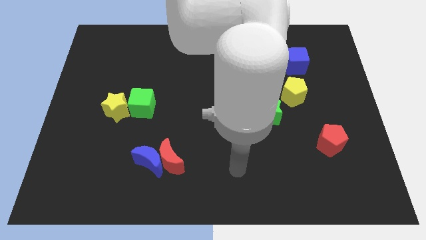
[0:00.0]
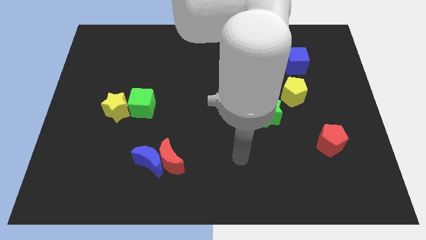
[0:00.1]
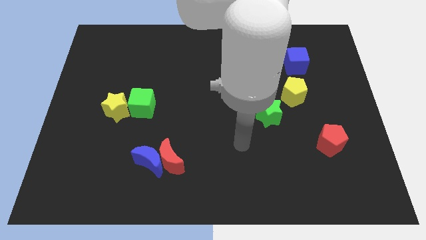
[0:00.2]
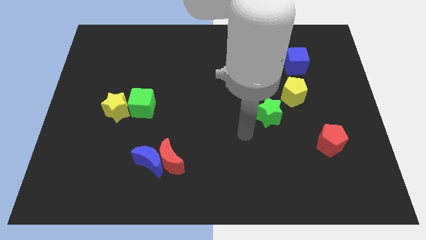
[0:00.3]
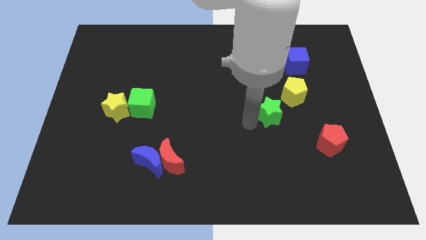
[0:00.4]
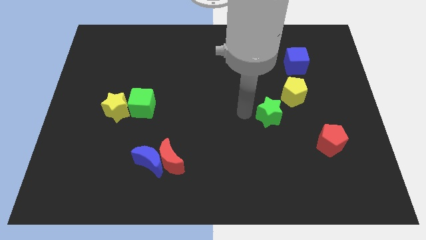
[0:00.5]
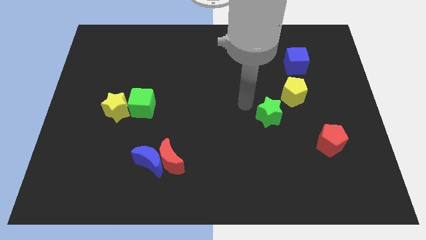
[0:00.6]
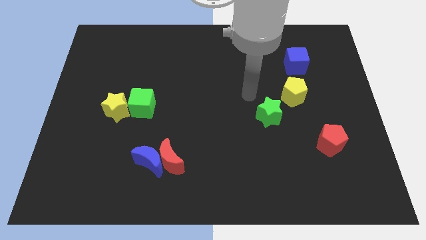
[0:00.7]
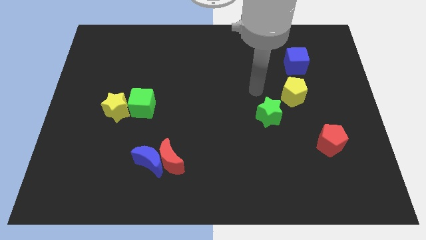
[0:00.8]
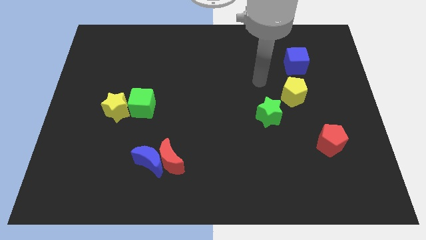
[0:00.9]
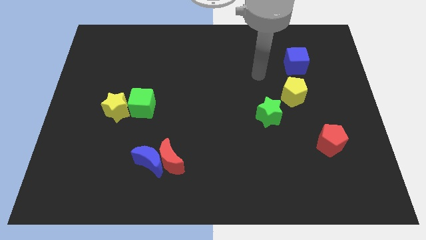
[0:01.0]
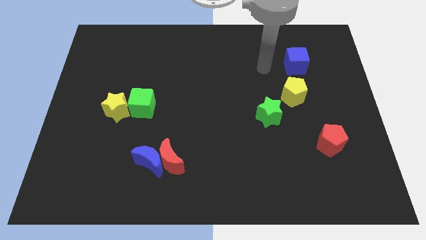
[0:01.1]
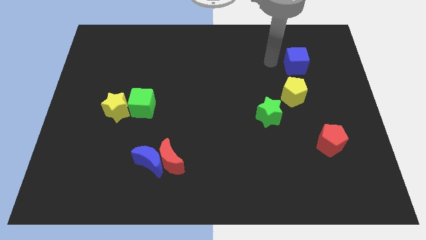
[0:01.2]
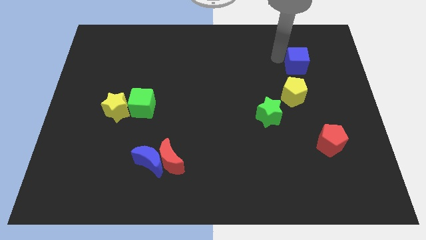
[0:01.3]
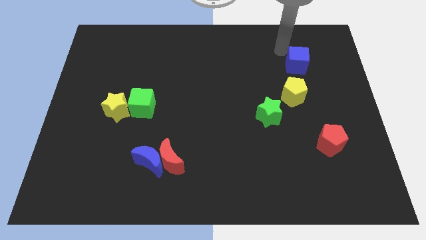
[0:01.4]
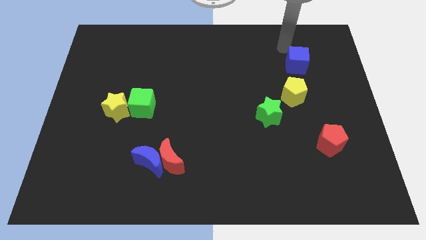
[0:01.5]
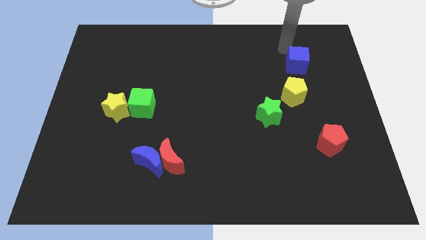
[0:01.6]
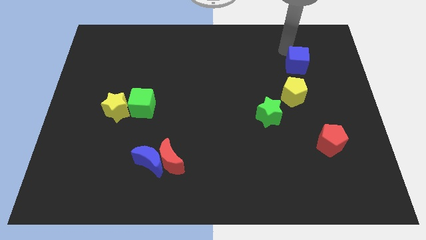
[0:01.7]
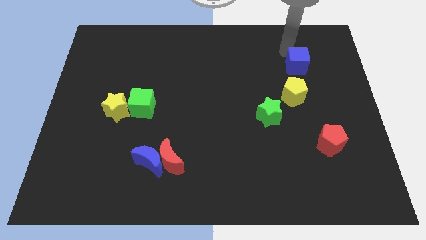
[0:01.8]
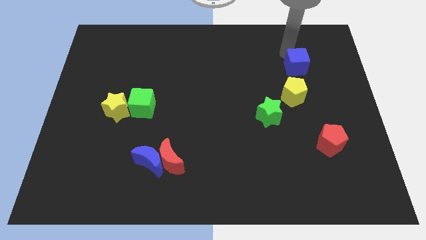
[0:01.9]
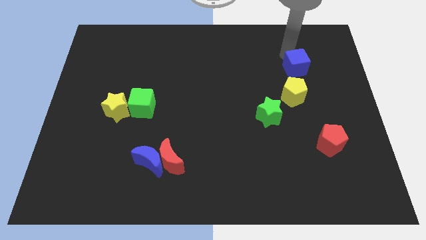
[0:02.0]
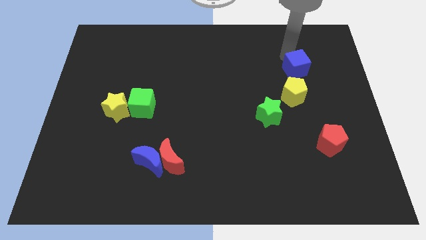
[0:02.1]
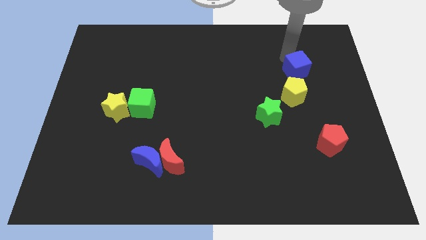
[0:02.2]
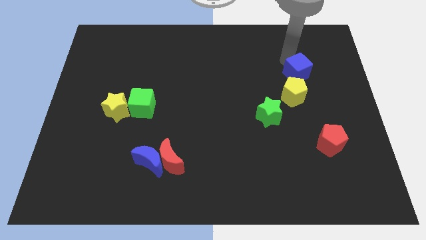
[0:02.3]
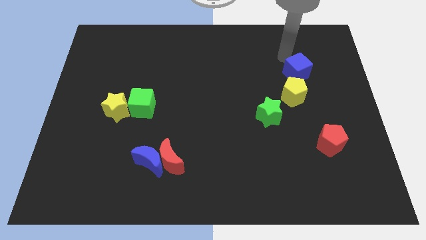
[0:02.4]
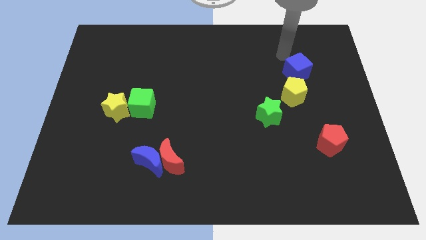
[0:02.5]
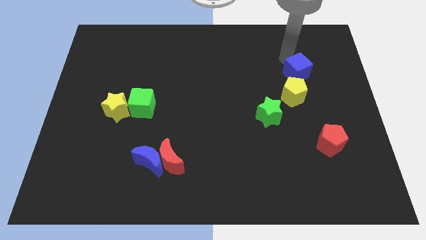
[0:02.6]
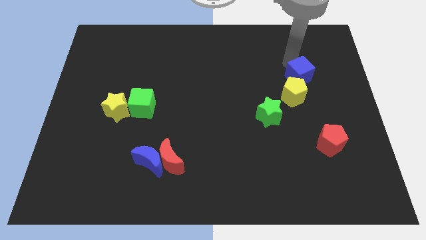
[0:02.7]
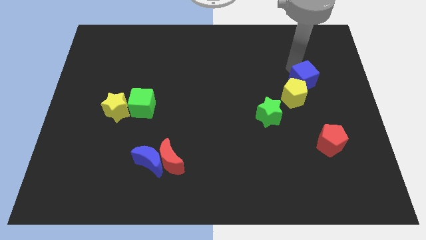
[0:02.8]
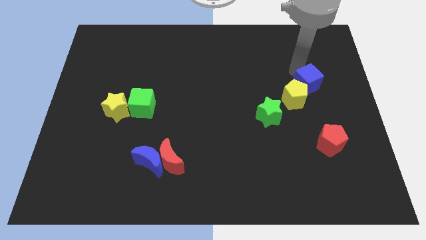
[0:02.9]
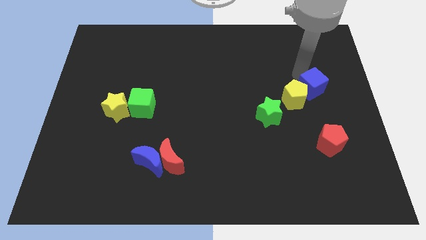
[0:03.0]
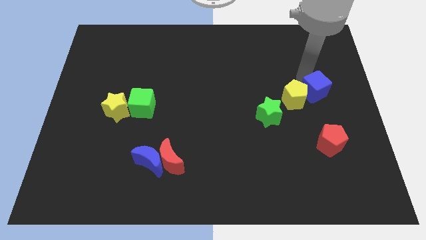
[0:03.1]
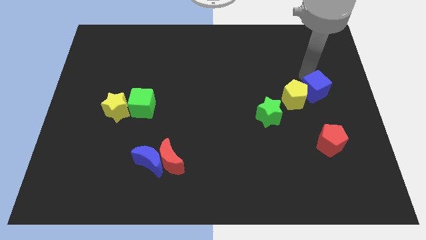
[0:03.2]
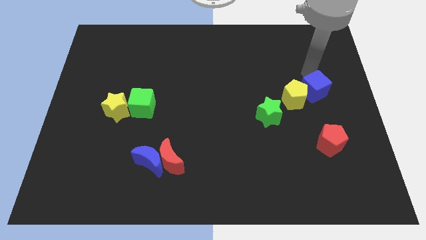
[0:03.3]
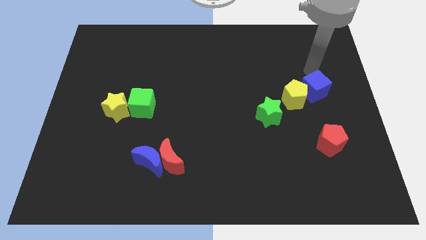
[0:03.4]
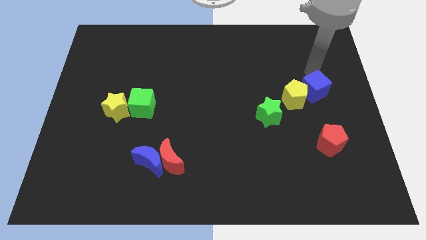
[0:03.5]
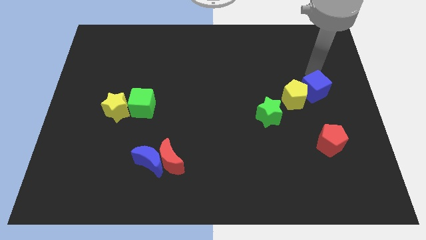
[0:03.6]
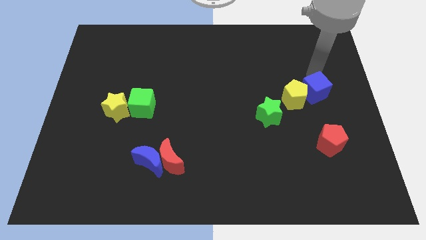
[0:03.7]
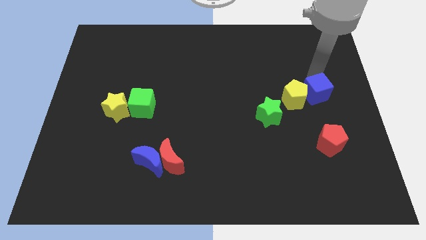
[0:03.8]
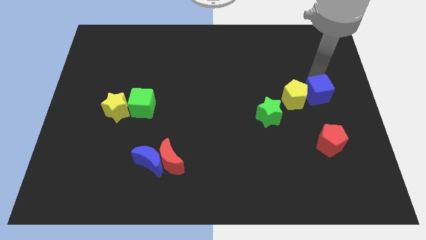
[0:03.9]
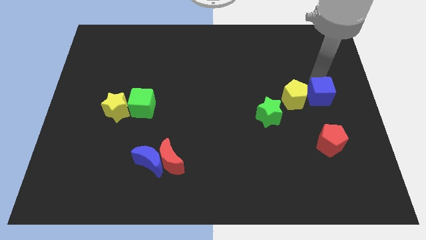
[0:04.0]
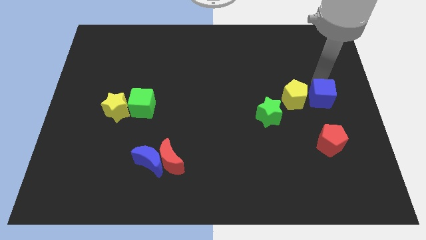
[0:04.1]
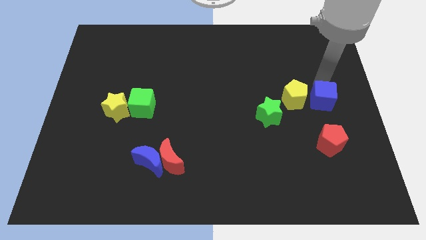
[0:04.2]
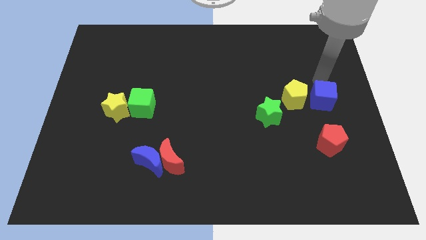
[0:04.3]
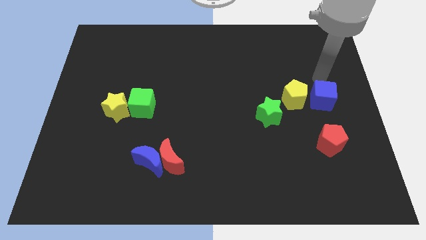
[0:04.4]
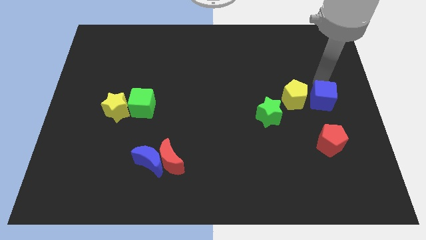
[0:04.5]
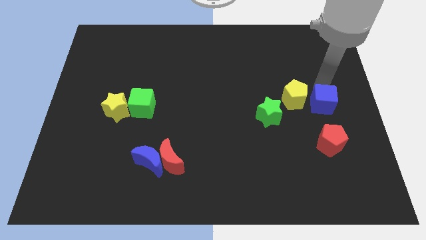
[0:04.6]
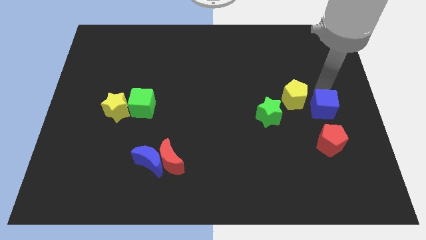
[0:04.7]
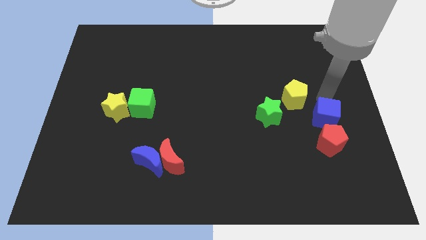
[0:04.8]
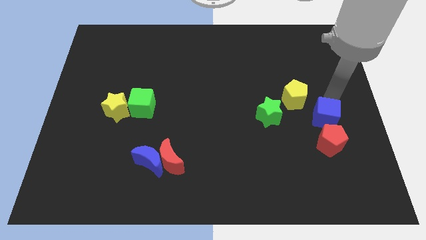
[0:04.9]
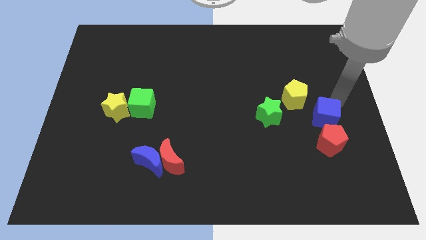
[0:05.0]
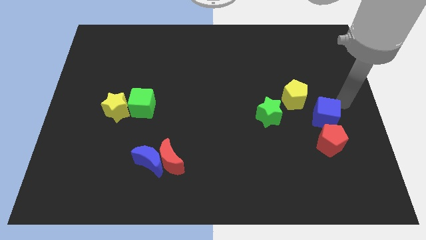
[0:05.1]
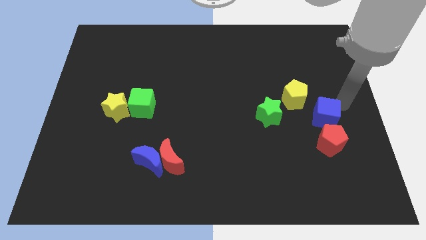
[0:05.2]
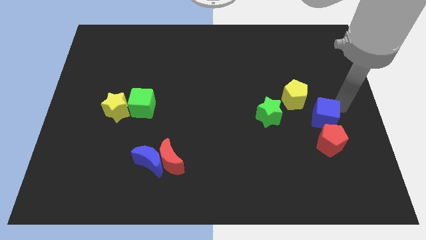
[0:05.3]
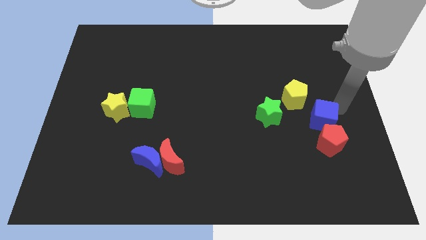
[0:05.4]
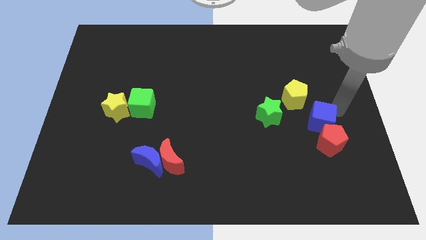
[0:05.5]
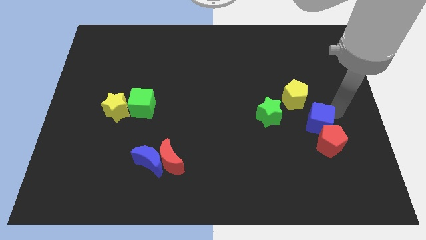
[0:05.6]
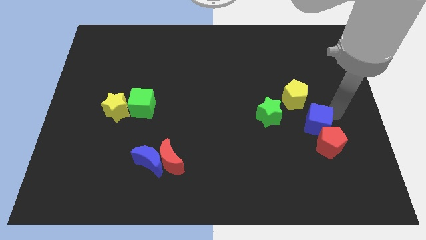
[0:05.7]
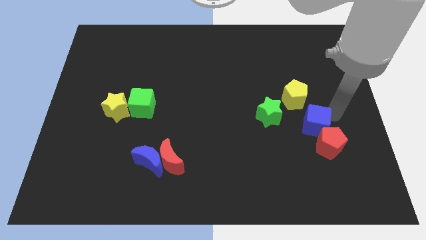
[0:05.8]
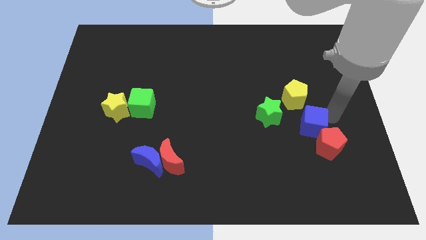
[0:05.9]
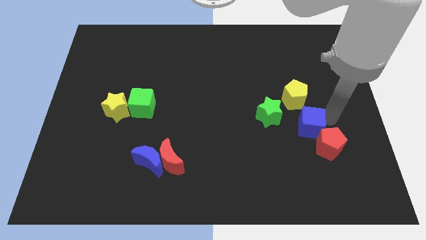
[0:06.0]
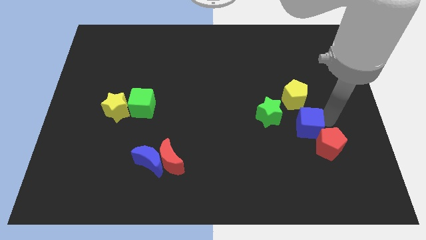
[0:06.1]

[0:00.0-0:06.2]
push the blue cube downwards

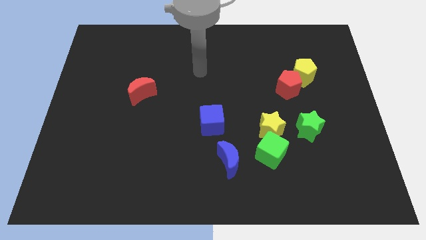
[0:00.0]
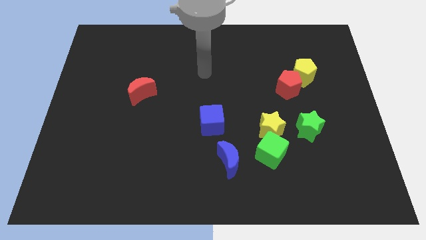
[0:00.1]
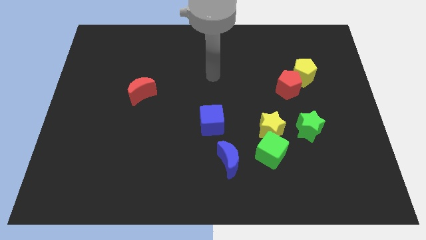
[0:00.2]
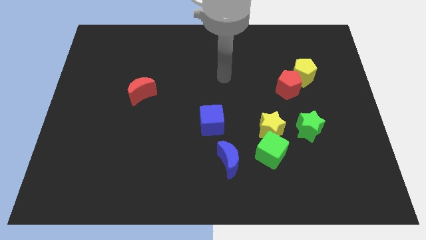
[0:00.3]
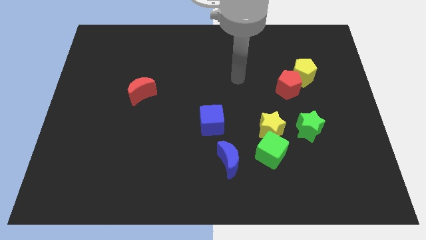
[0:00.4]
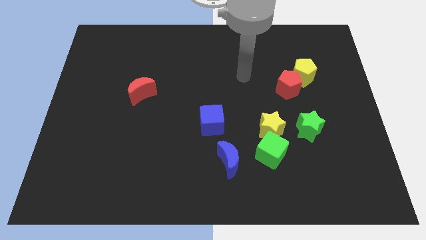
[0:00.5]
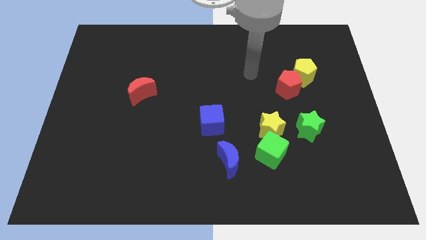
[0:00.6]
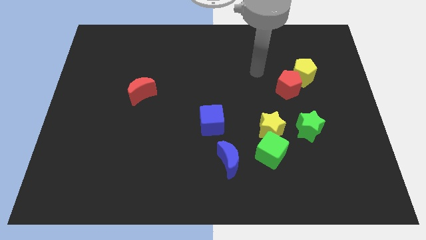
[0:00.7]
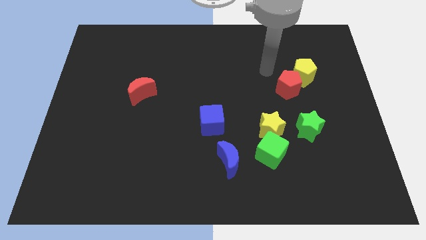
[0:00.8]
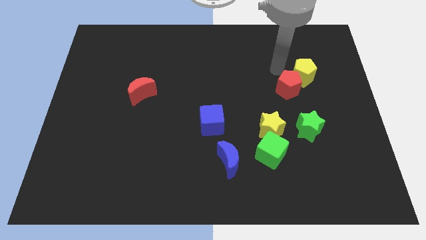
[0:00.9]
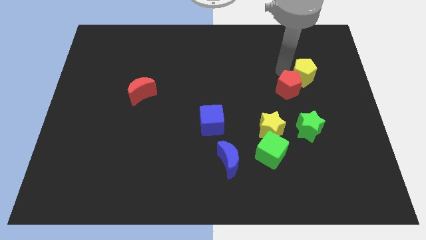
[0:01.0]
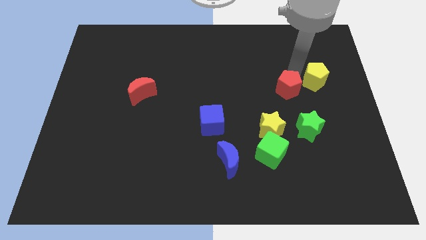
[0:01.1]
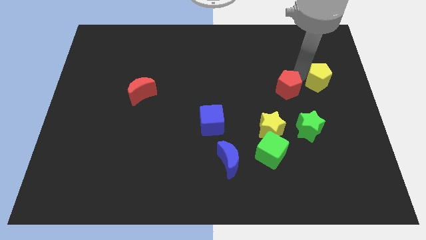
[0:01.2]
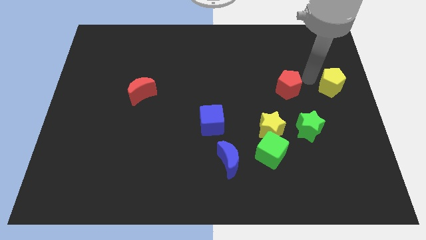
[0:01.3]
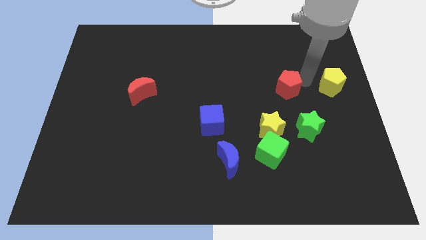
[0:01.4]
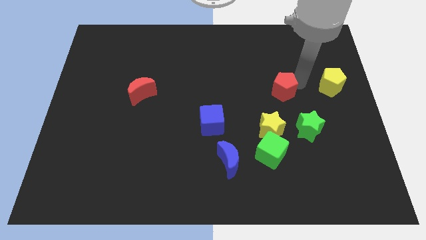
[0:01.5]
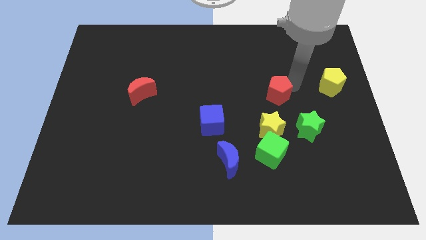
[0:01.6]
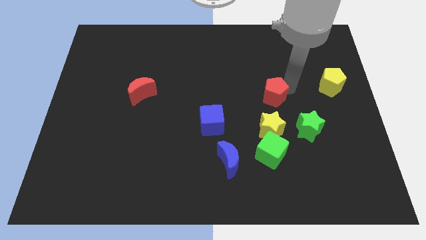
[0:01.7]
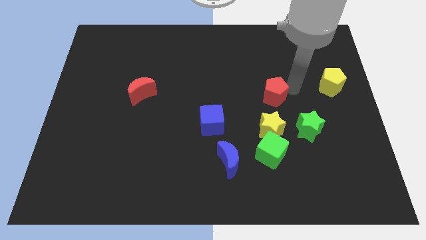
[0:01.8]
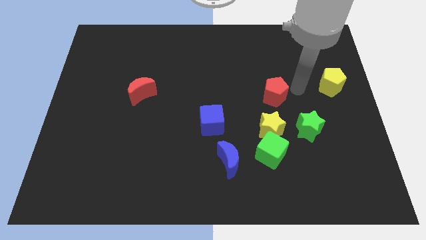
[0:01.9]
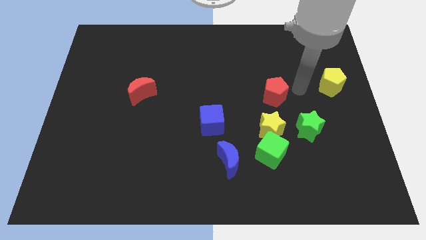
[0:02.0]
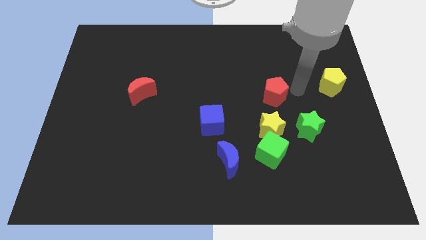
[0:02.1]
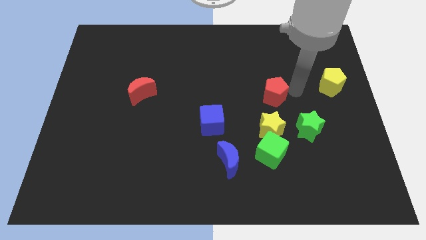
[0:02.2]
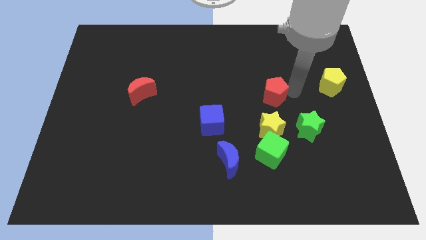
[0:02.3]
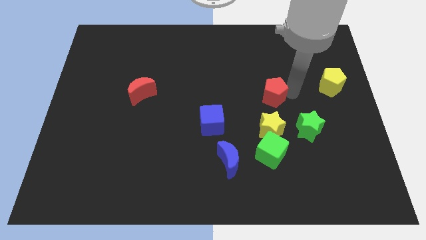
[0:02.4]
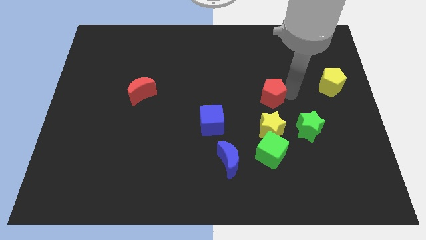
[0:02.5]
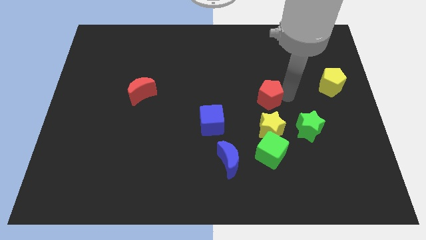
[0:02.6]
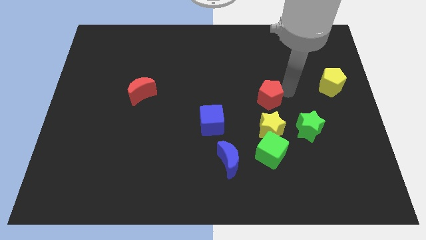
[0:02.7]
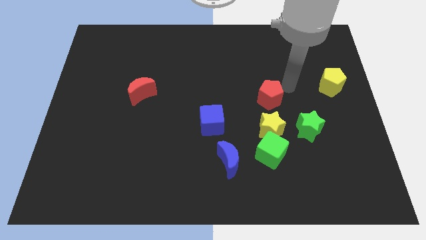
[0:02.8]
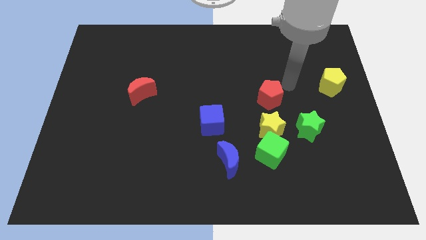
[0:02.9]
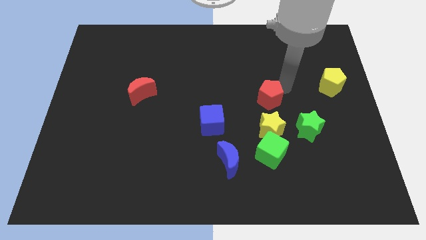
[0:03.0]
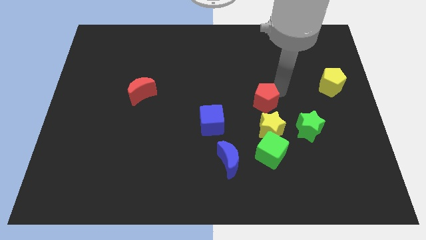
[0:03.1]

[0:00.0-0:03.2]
move the red pentagon somewhat diagonally downwards and to the left
